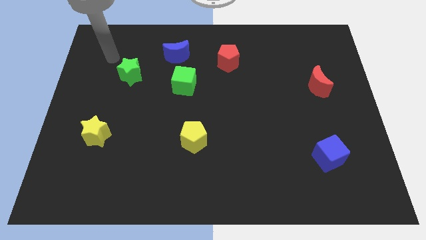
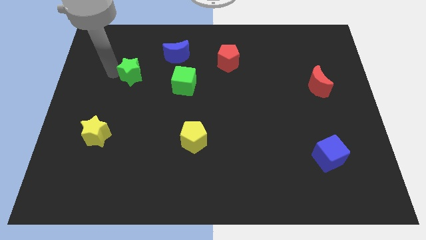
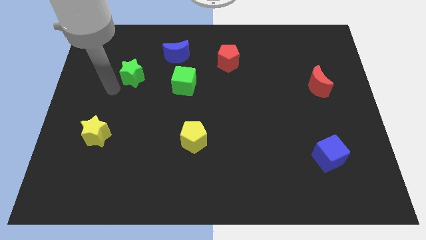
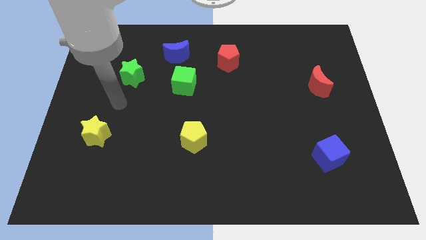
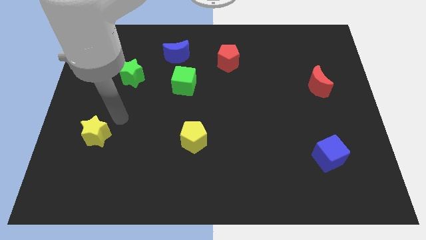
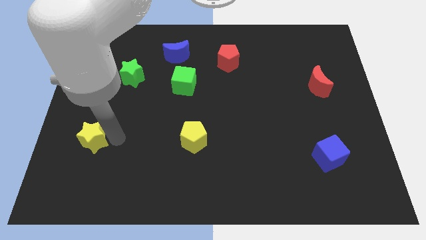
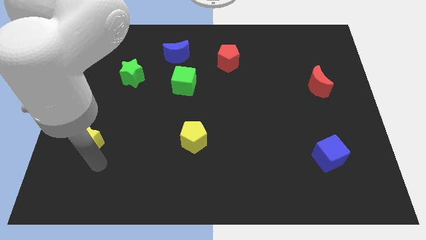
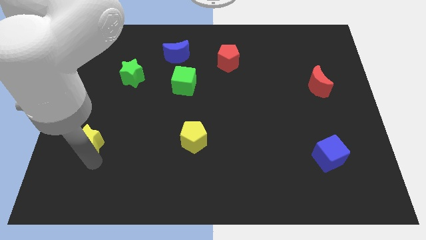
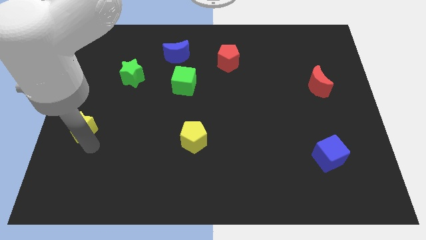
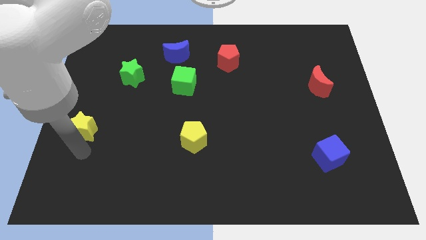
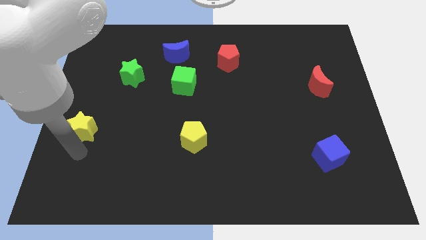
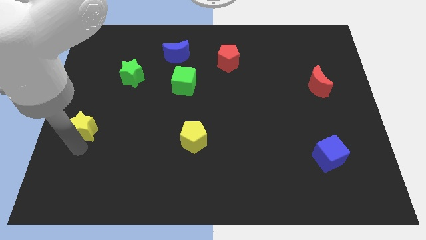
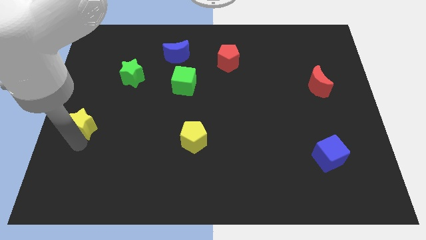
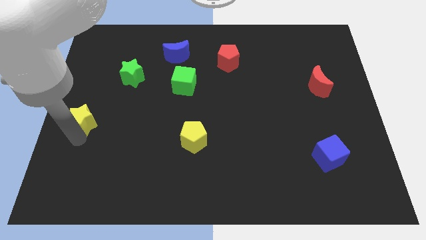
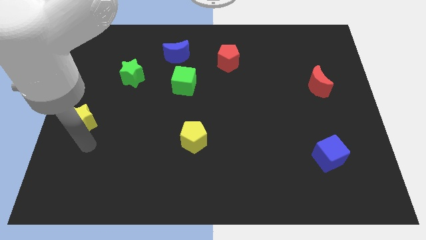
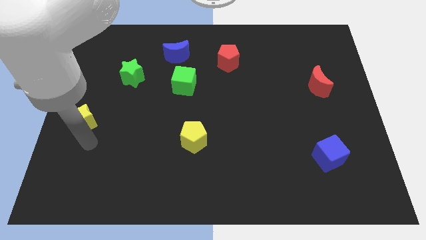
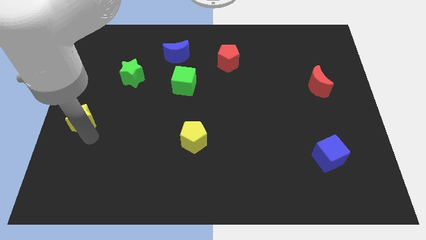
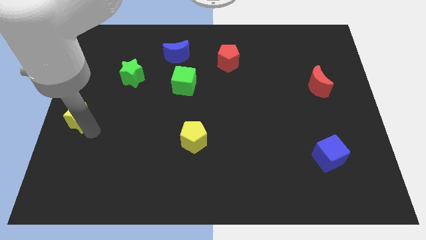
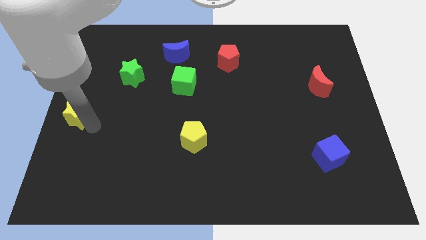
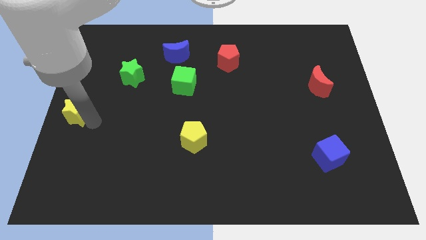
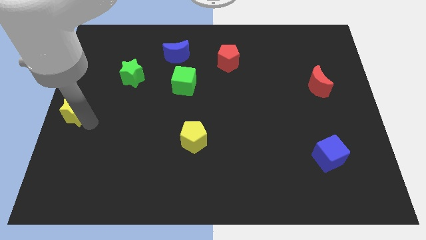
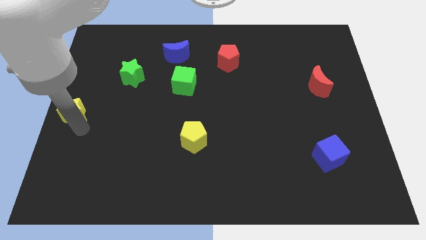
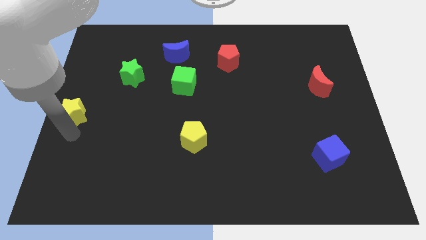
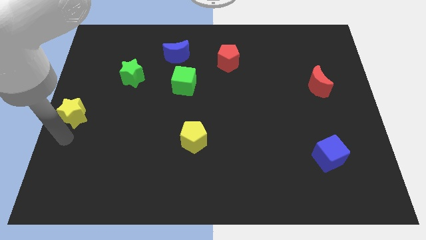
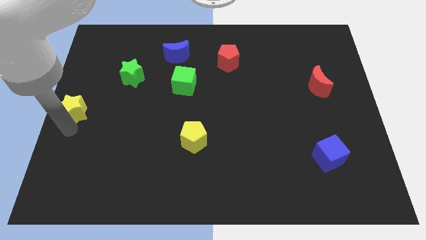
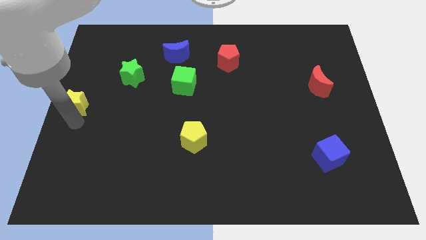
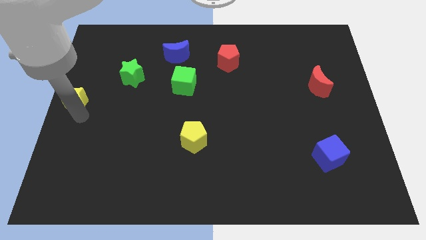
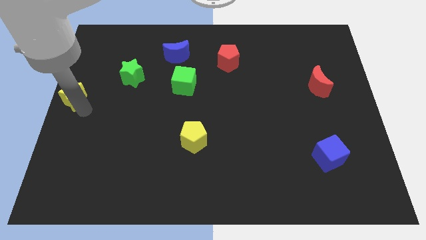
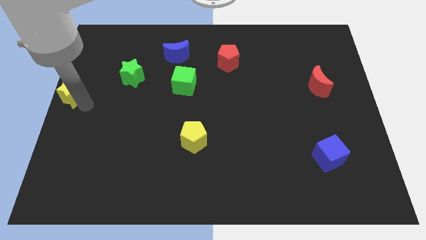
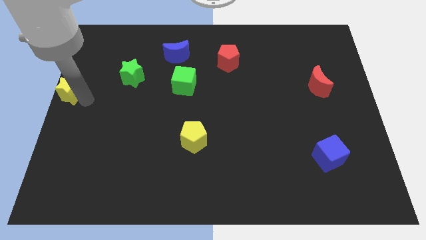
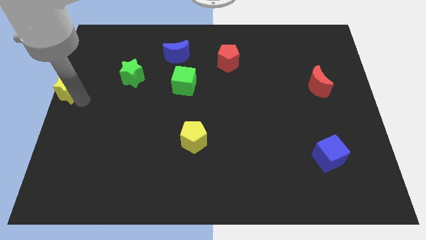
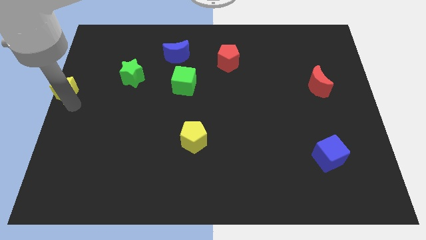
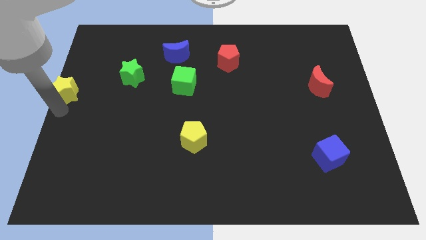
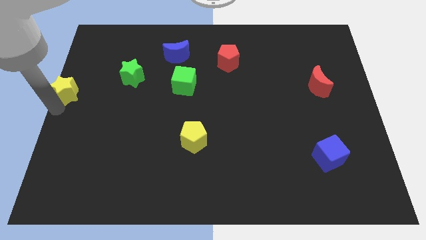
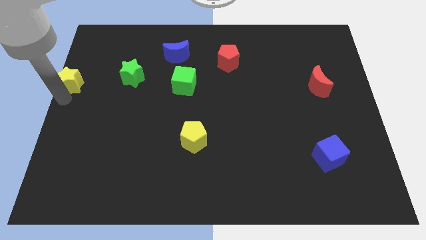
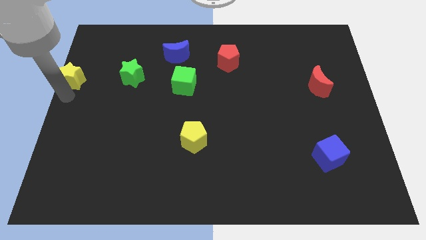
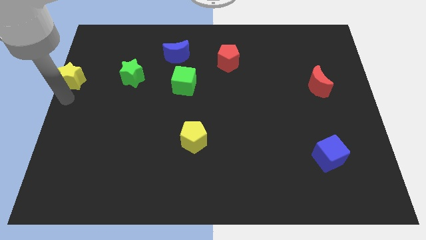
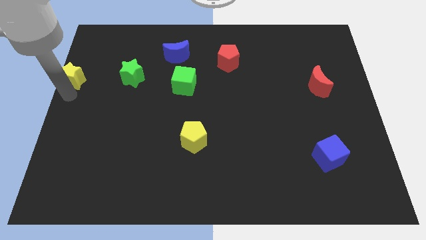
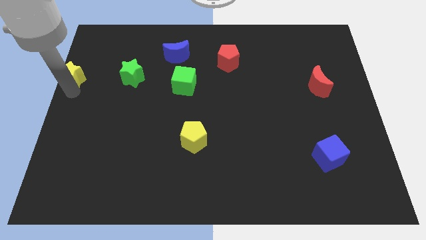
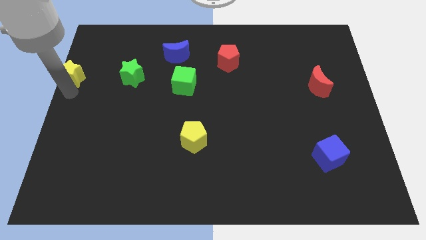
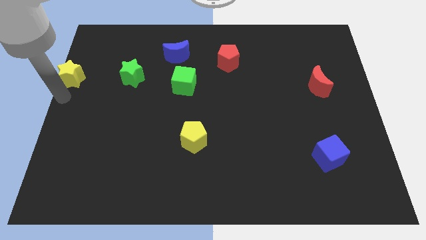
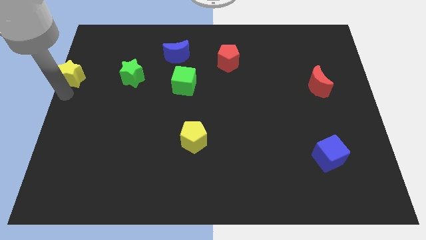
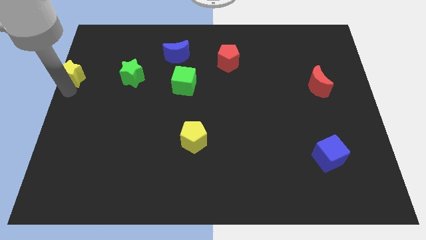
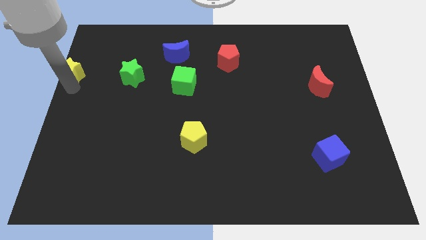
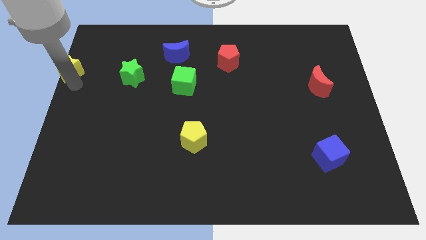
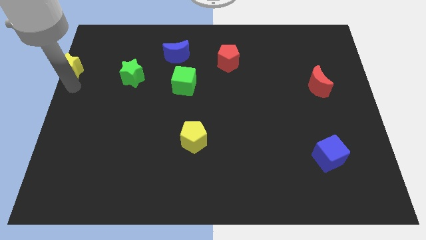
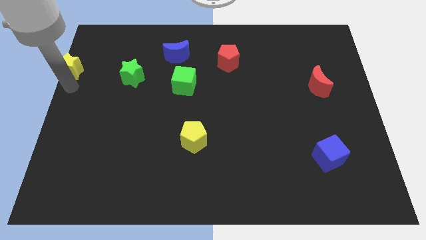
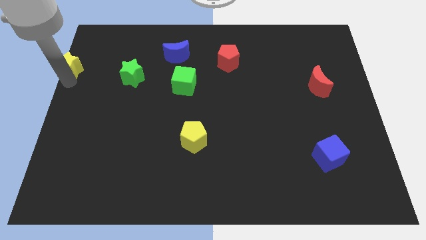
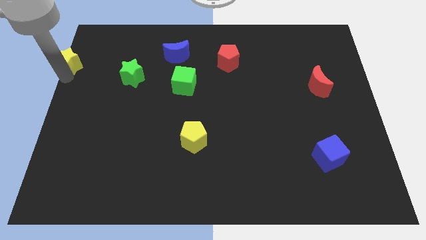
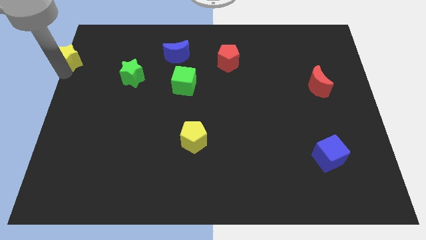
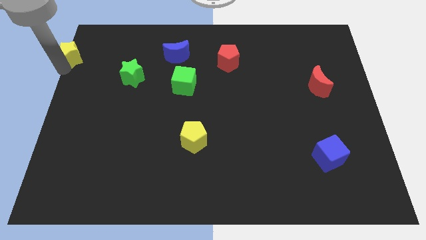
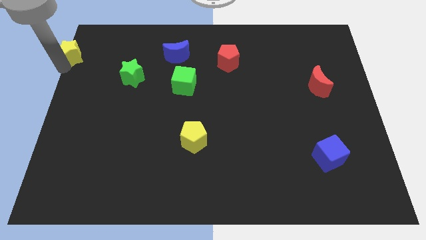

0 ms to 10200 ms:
move the yellow star to the top left of the board

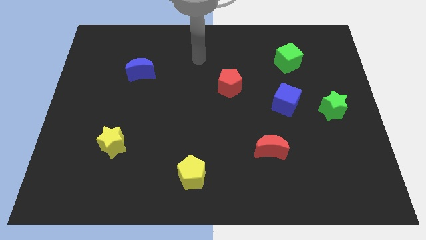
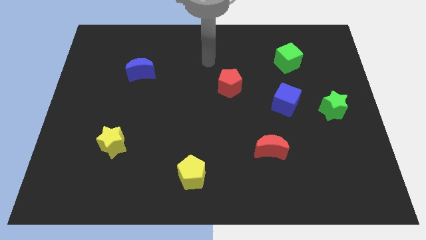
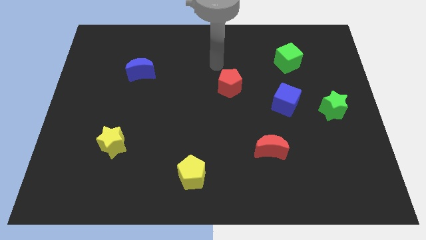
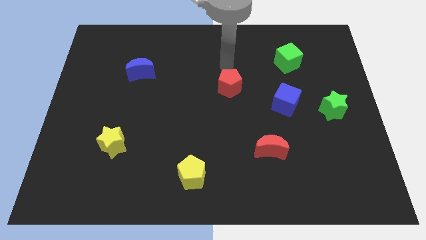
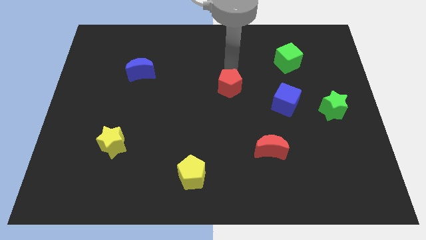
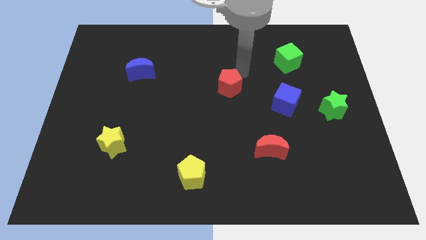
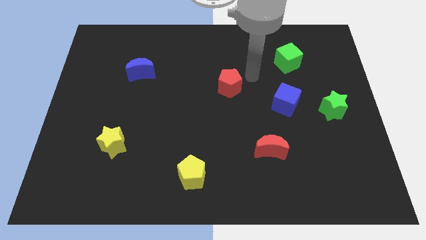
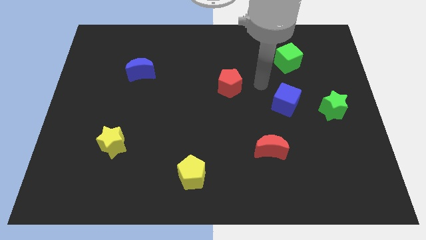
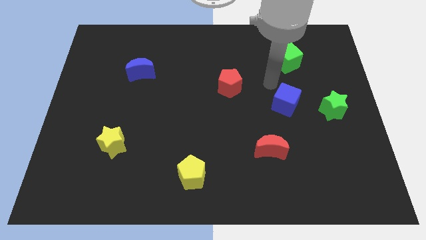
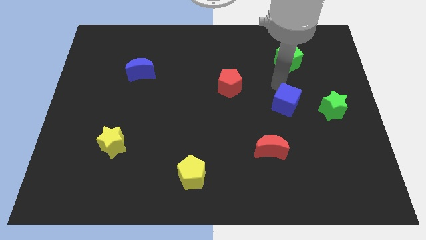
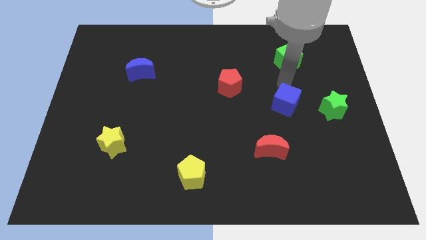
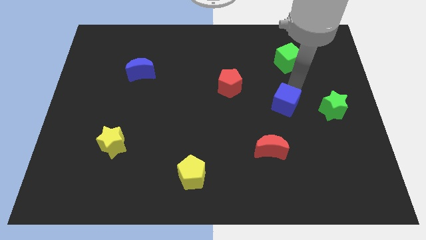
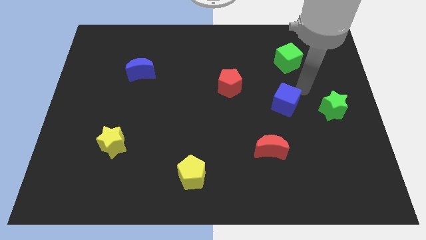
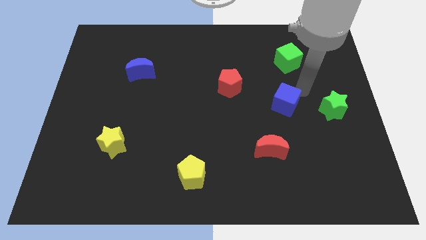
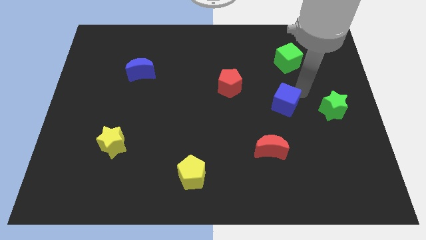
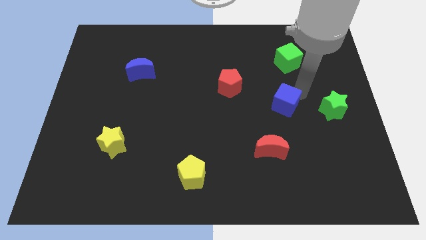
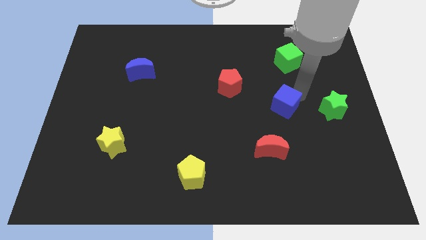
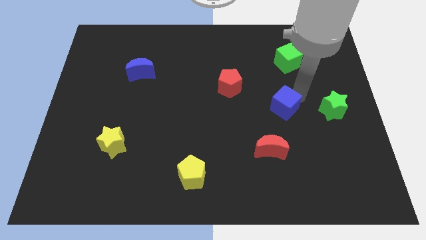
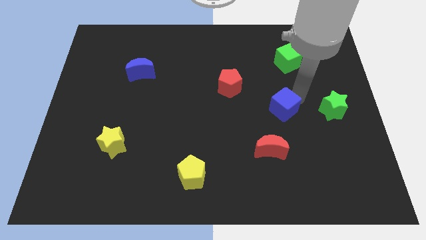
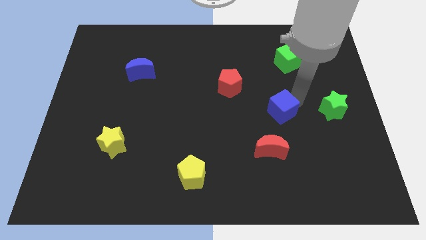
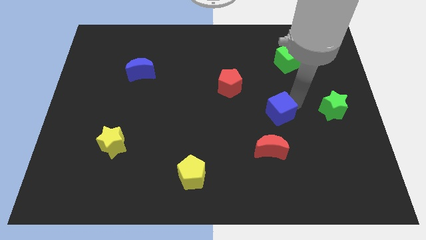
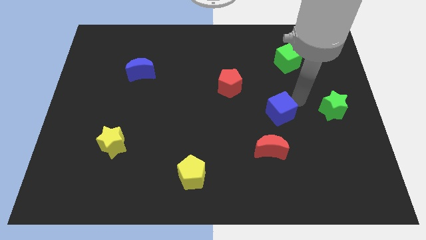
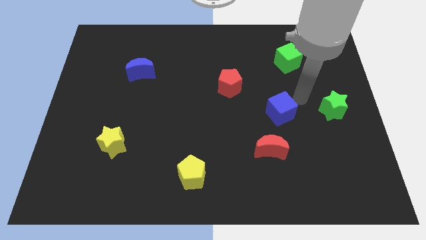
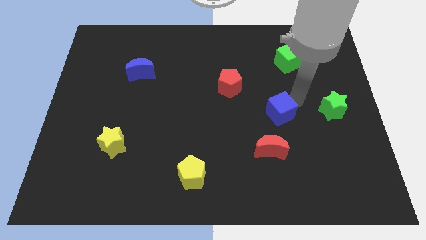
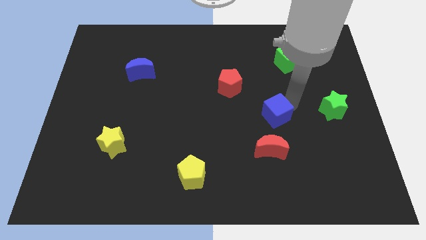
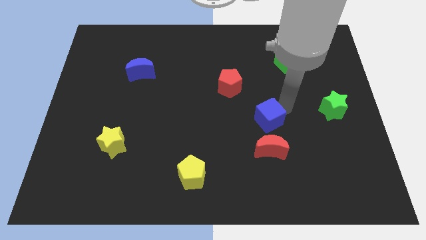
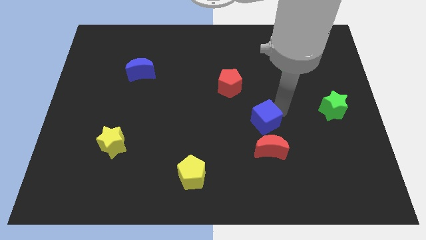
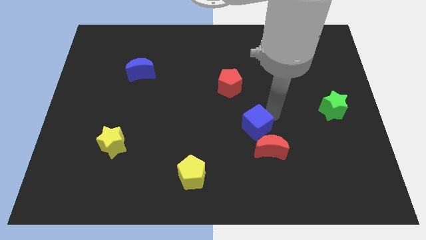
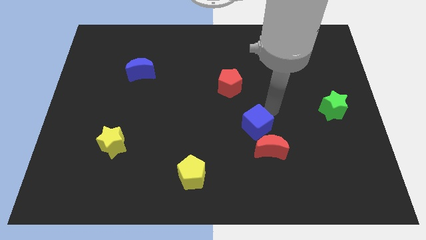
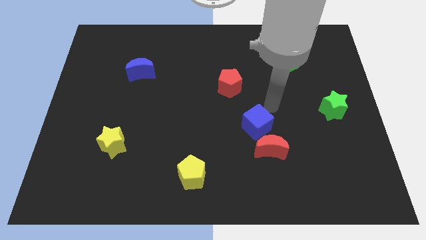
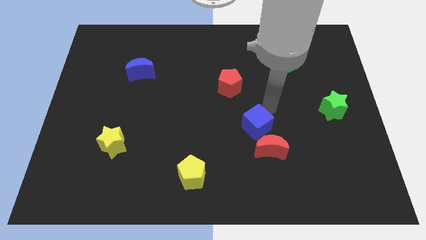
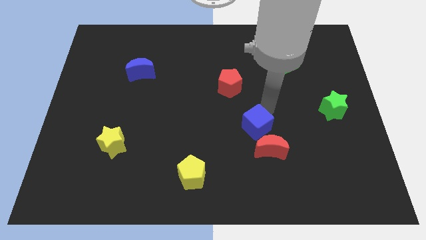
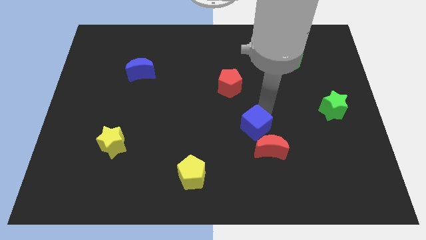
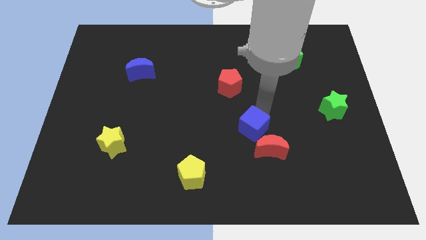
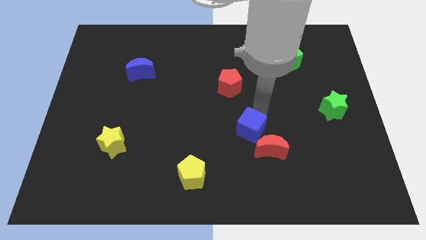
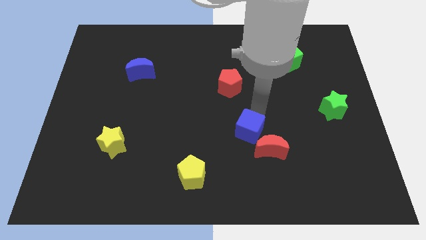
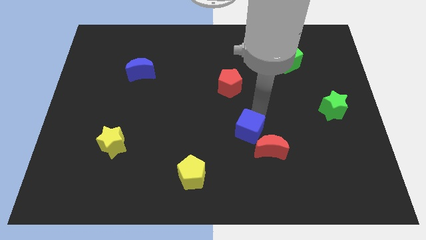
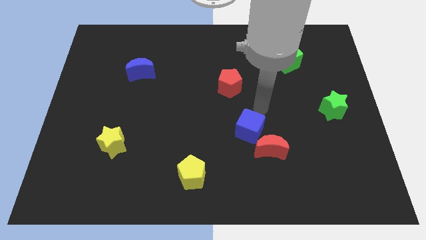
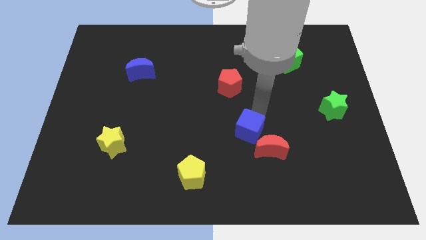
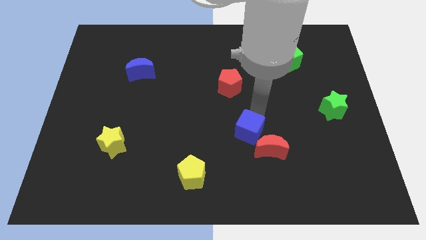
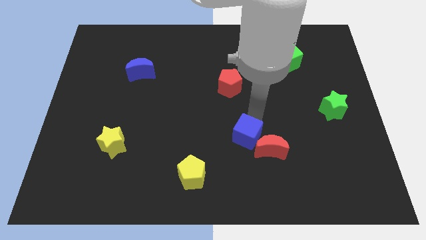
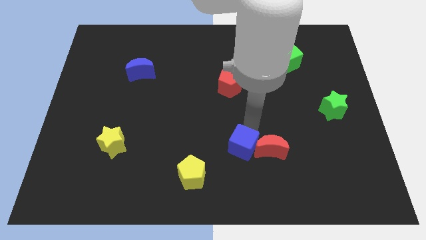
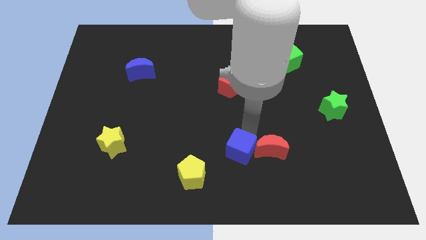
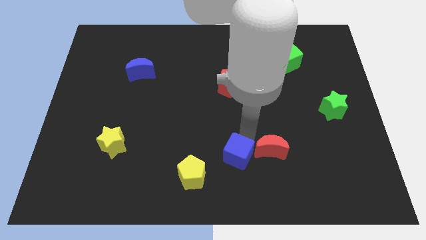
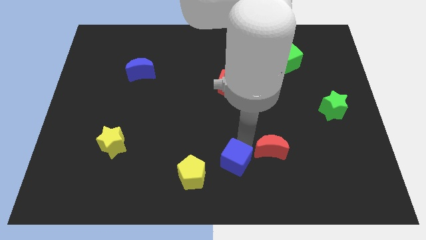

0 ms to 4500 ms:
slide the blue cube to the bottom
